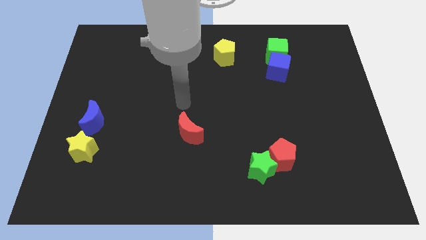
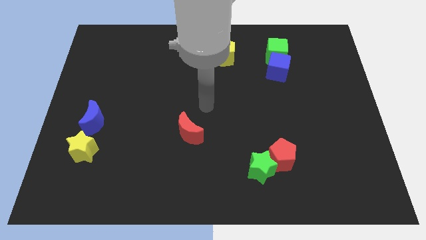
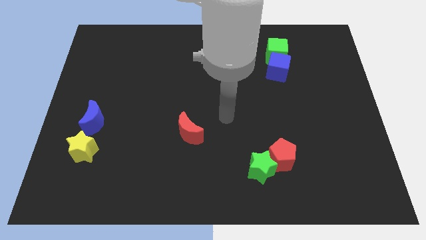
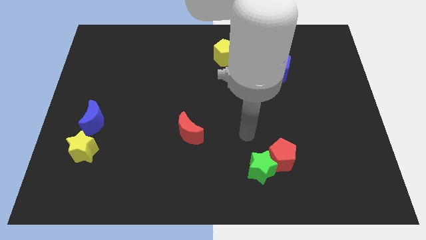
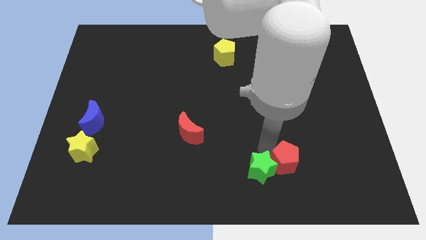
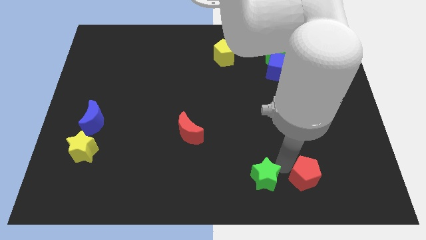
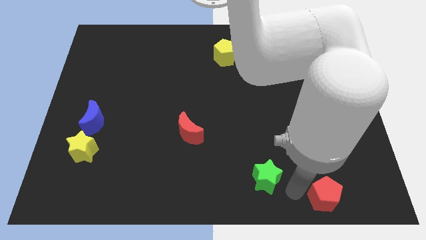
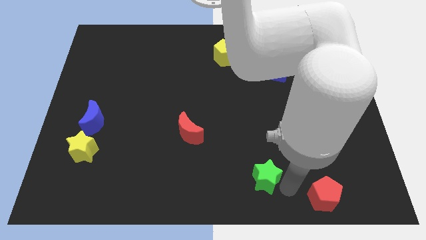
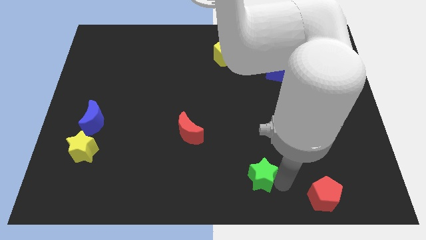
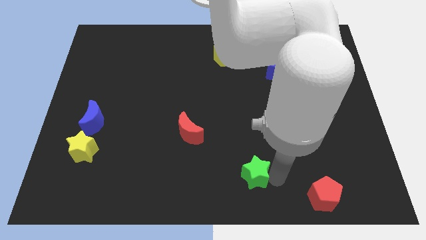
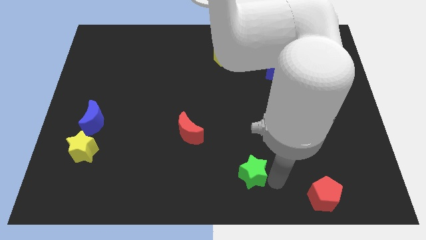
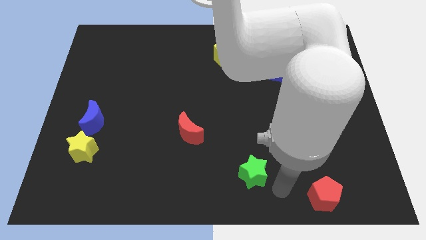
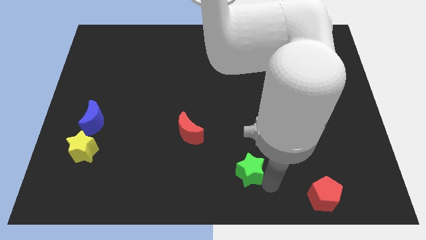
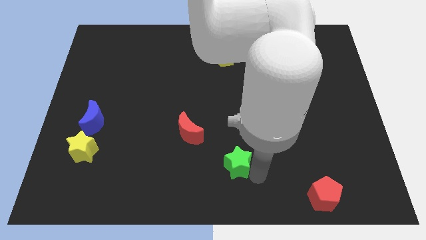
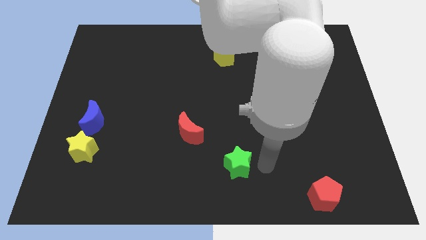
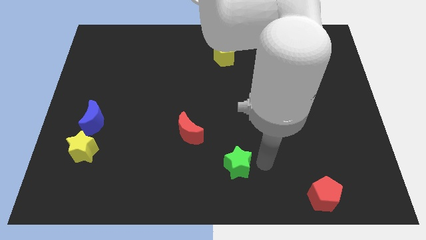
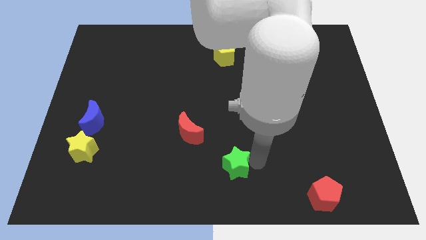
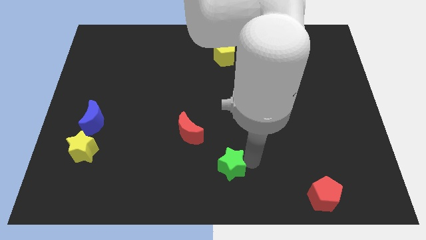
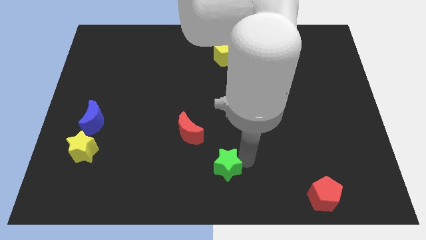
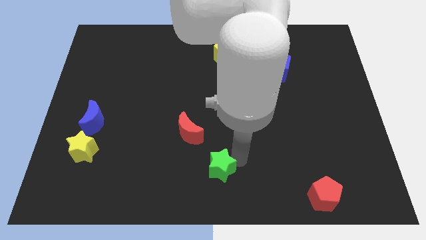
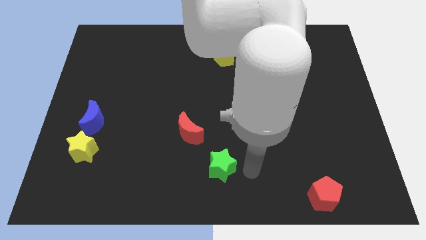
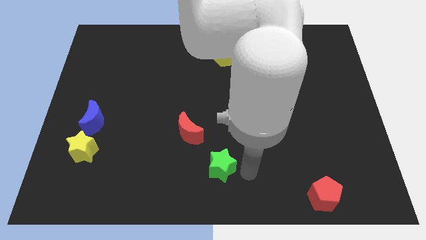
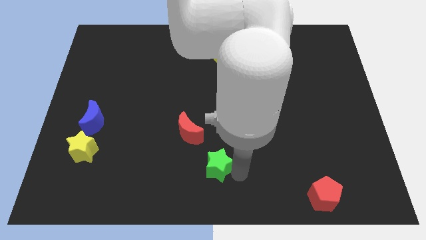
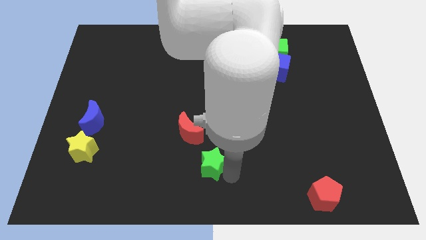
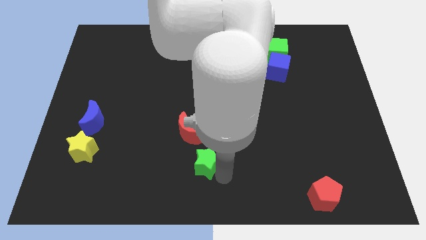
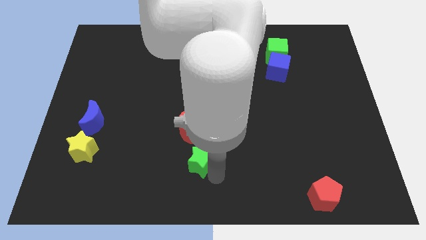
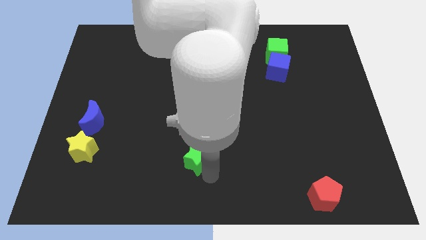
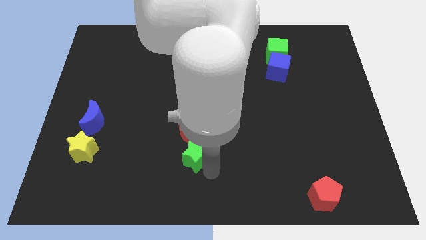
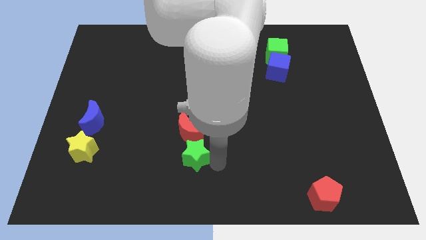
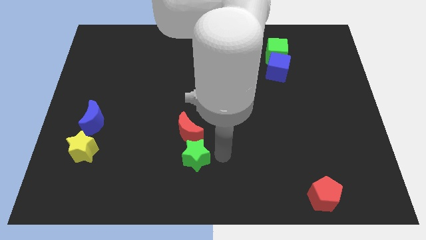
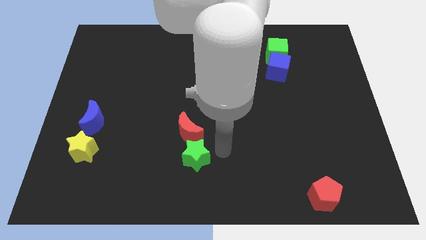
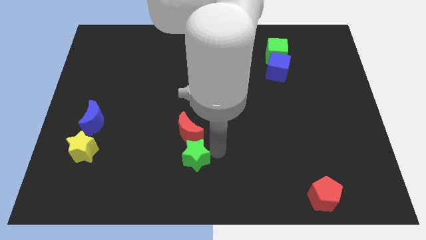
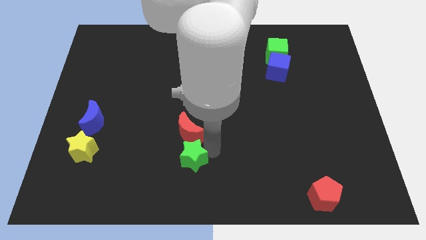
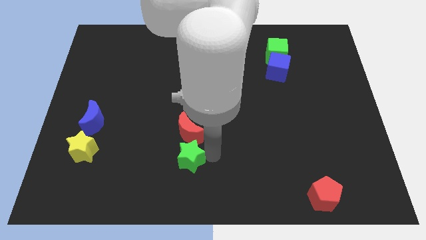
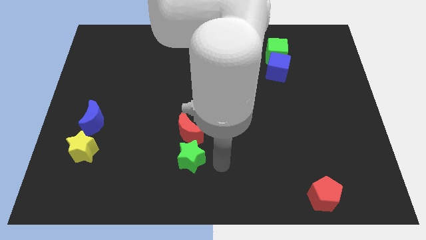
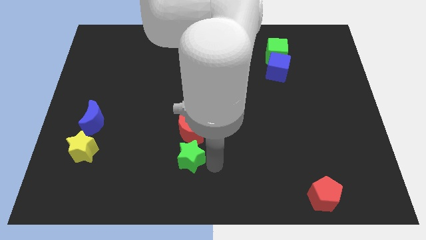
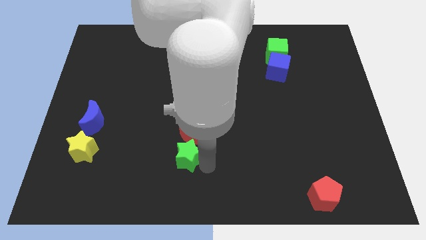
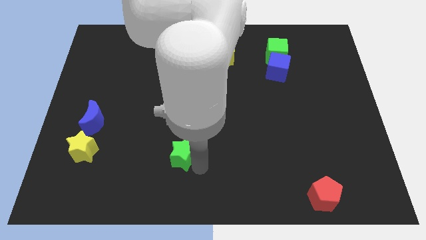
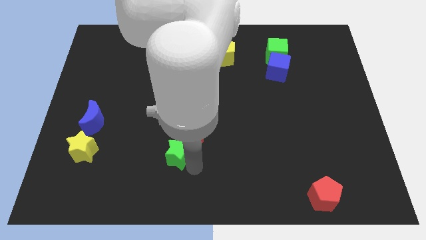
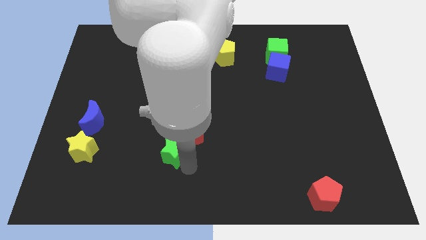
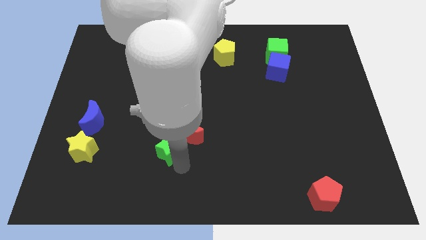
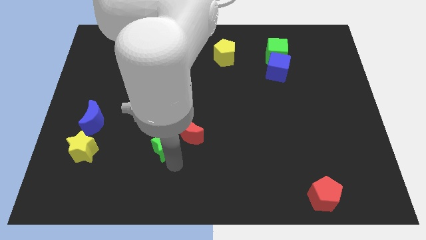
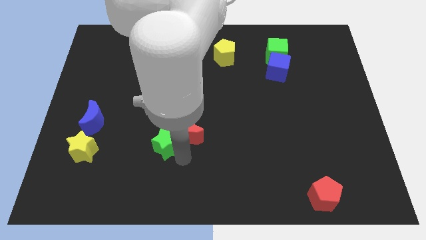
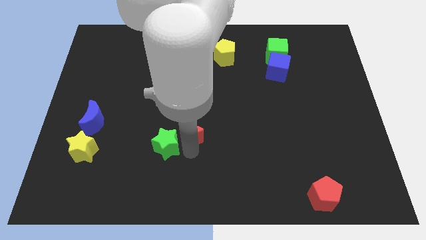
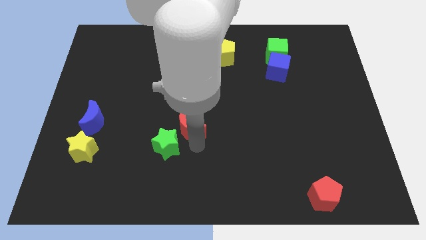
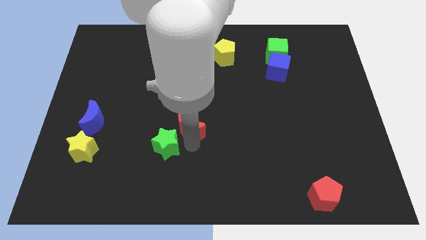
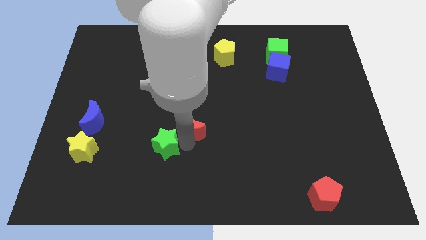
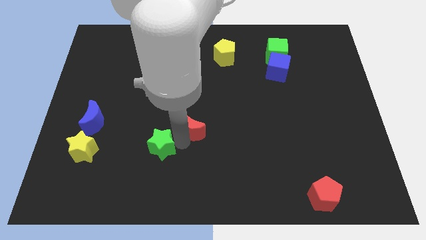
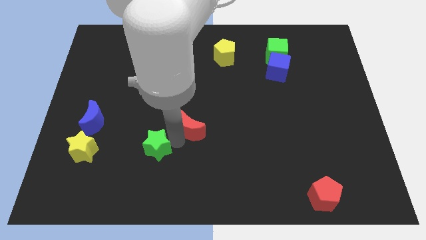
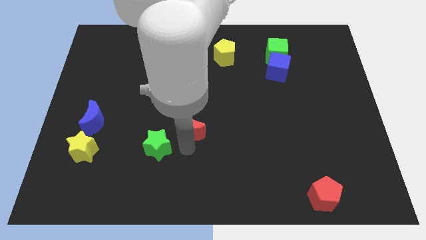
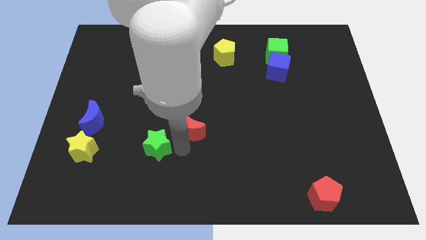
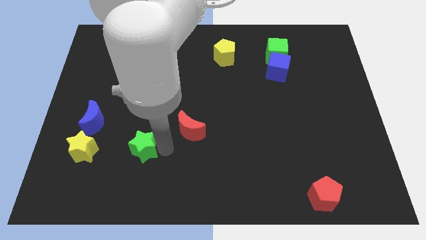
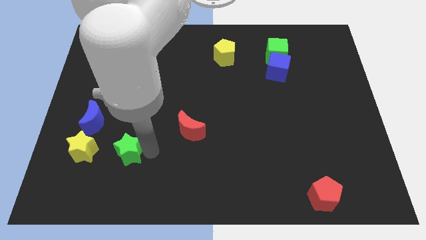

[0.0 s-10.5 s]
put the green star diagonally down and to the right of the blue moon

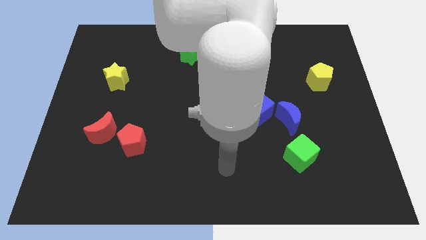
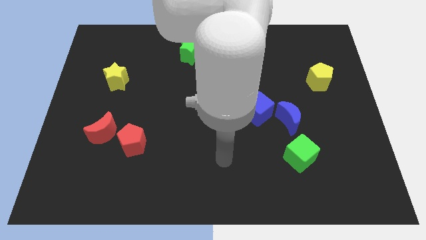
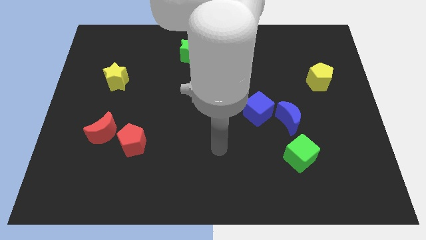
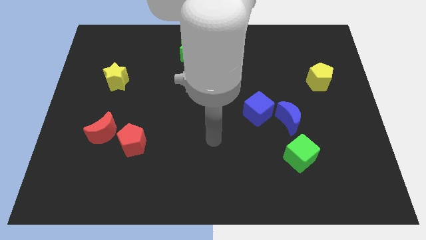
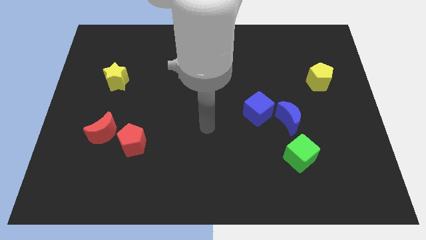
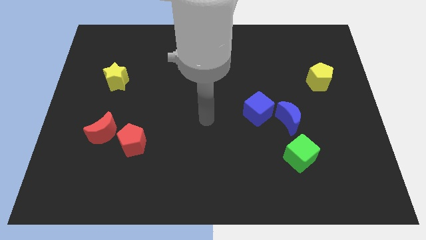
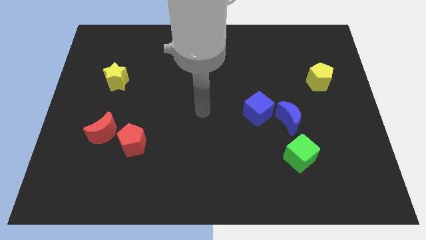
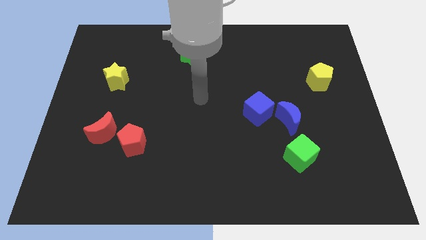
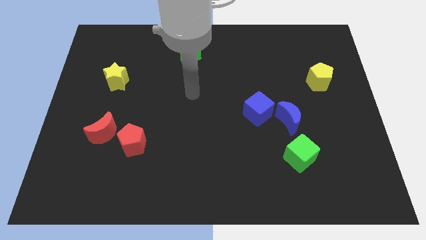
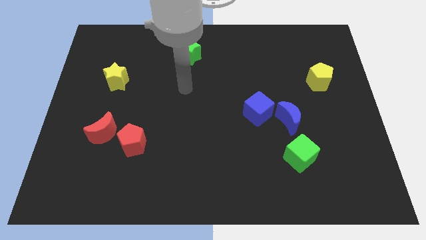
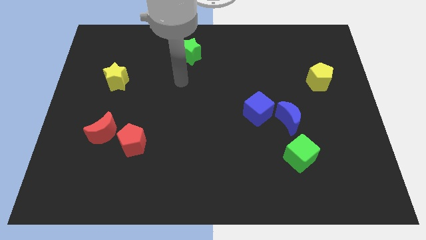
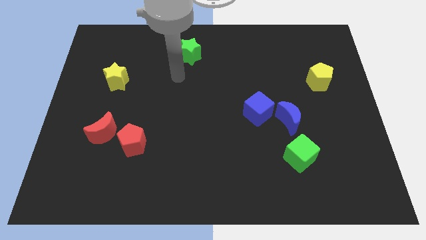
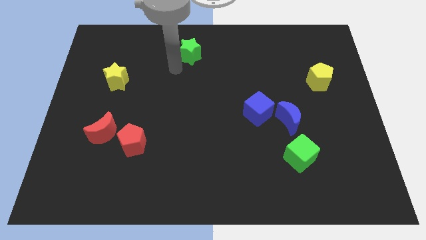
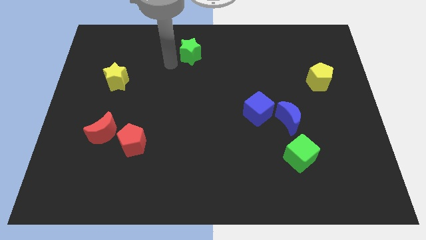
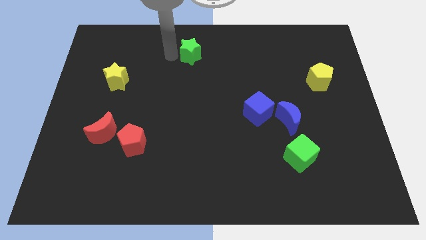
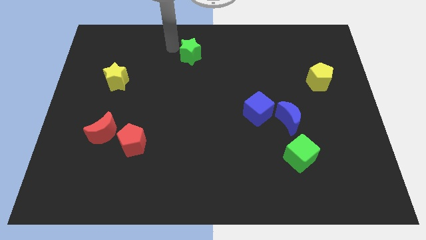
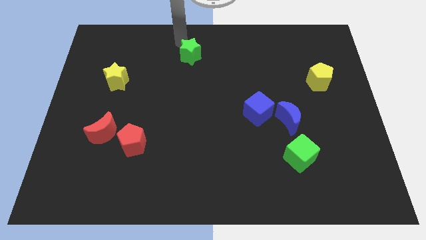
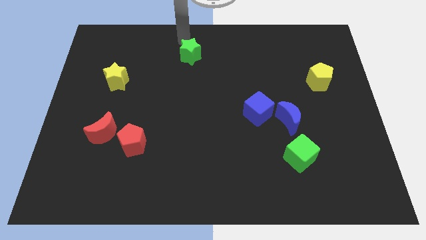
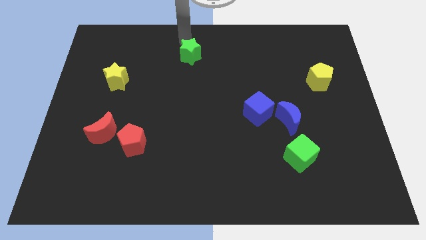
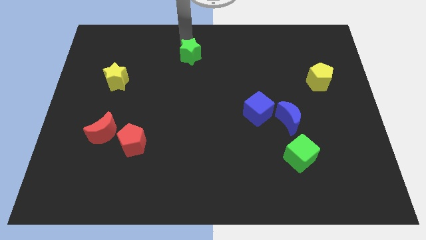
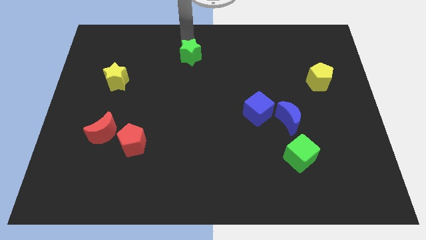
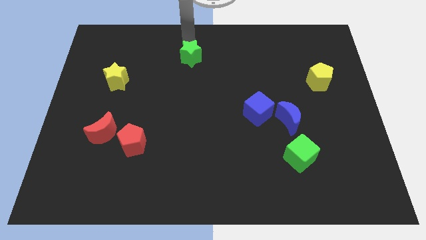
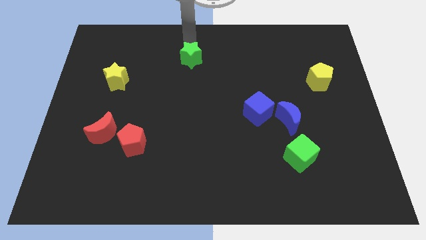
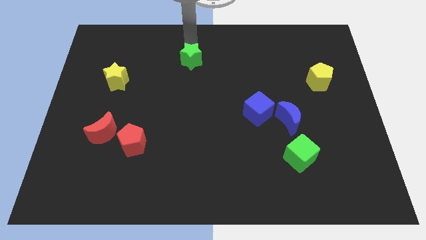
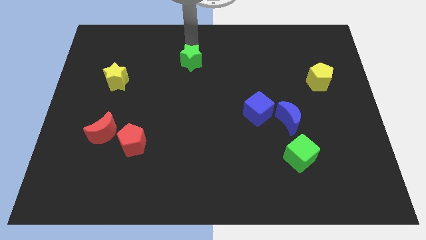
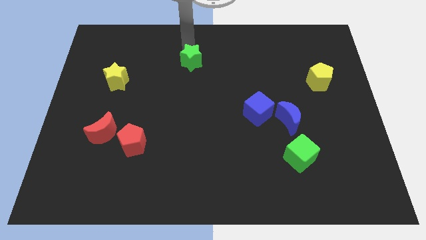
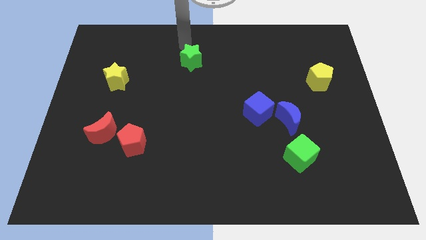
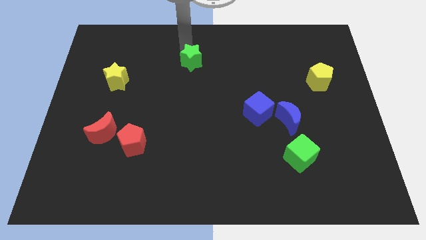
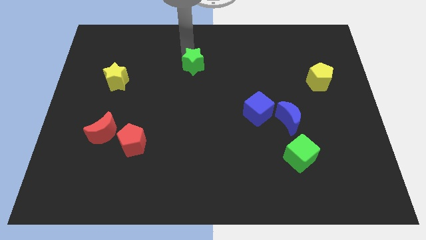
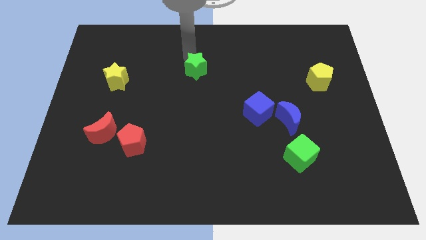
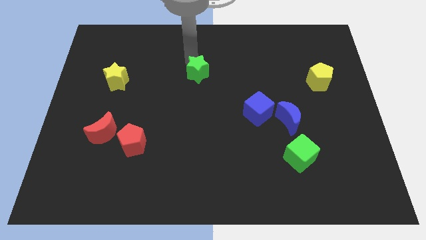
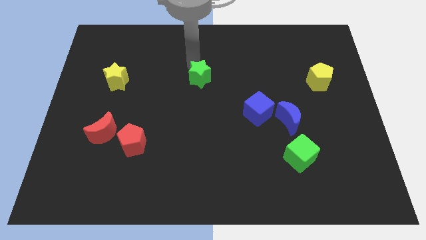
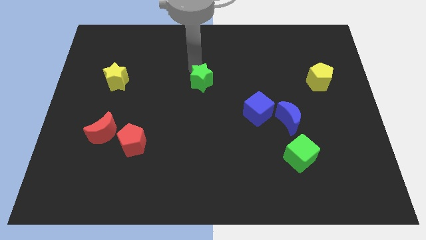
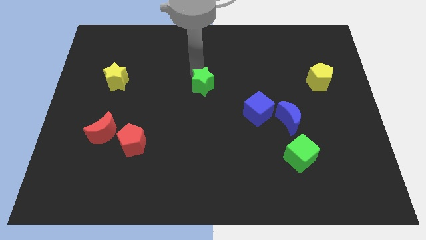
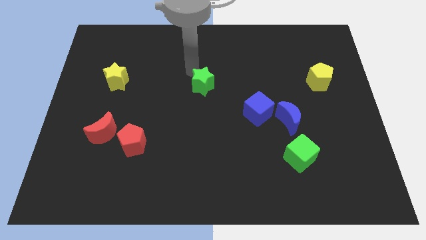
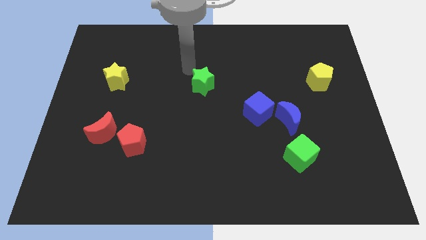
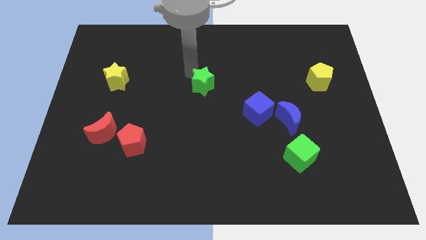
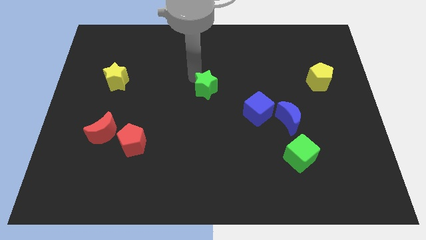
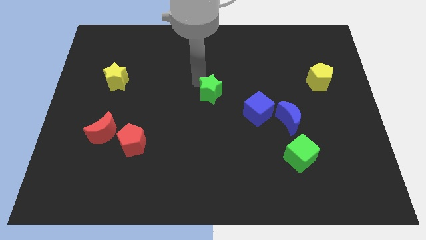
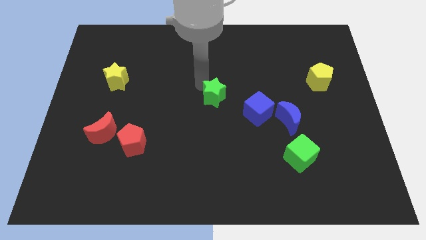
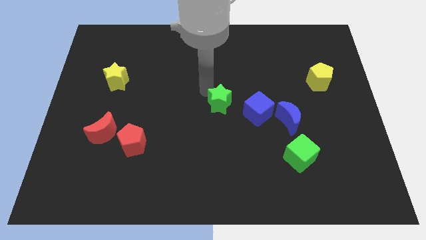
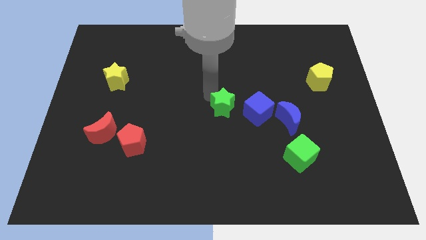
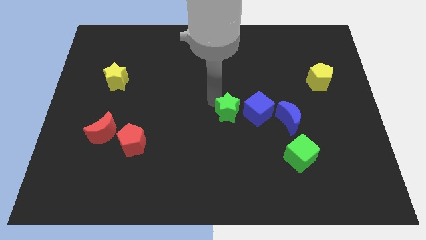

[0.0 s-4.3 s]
push the green star to the left side of the blue moon
